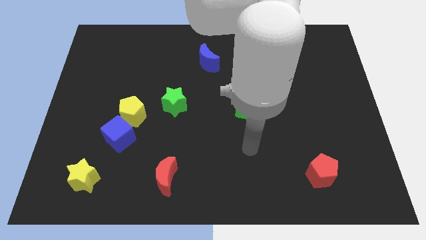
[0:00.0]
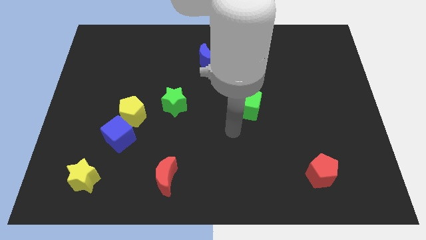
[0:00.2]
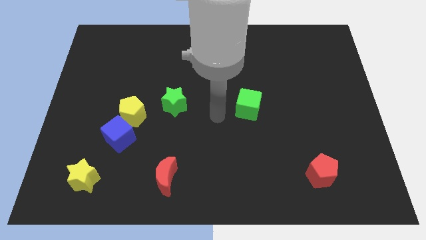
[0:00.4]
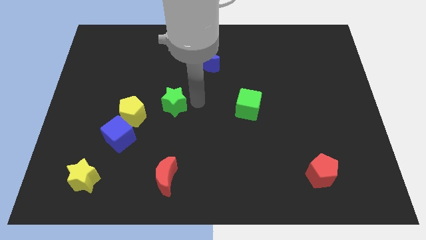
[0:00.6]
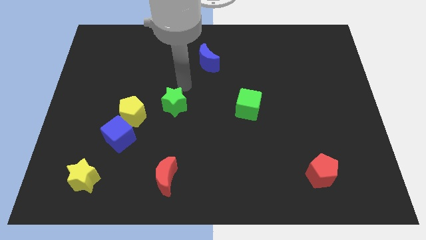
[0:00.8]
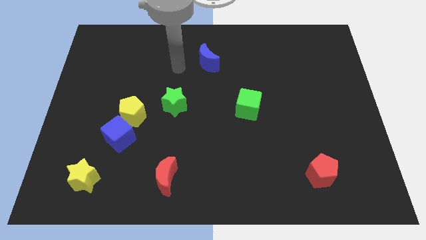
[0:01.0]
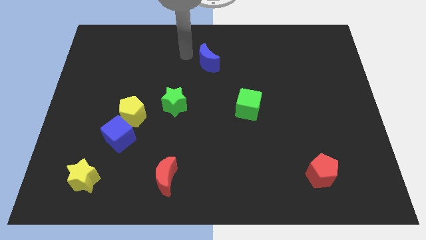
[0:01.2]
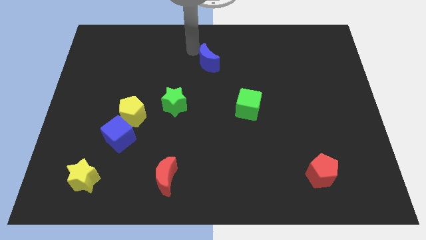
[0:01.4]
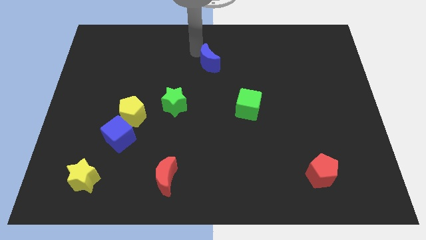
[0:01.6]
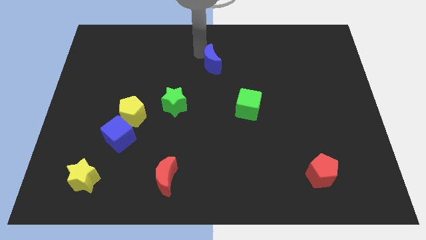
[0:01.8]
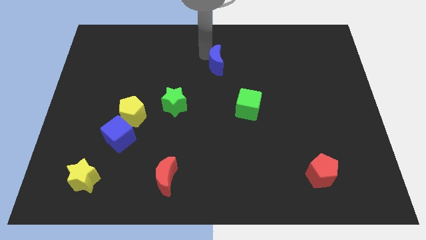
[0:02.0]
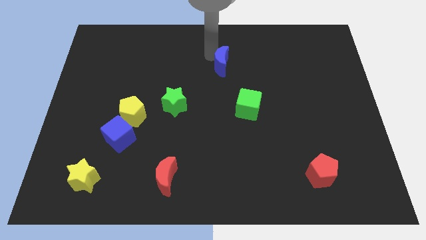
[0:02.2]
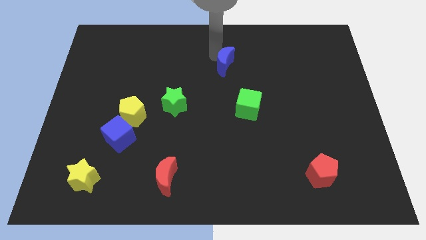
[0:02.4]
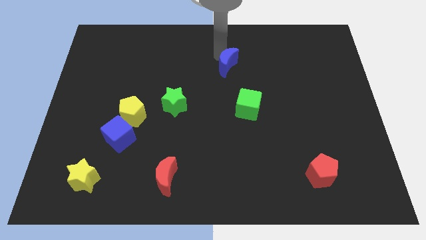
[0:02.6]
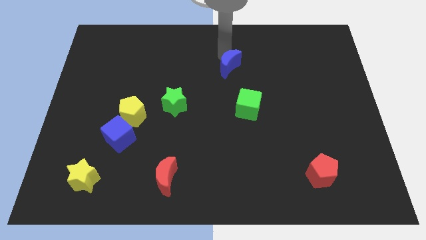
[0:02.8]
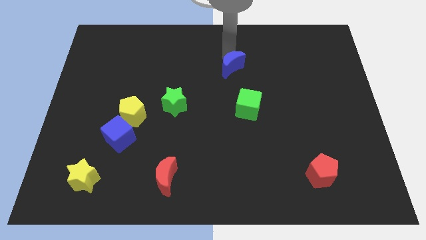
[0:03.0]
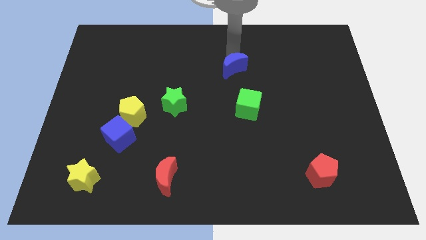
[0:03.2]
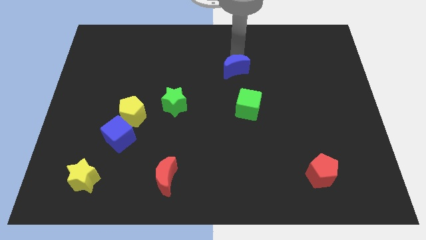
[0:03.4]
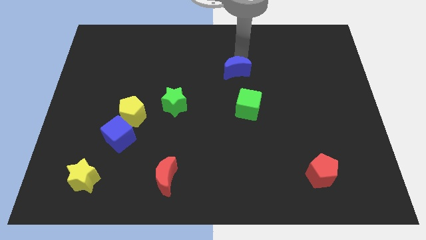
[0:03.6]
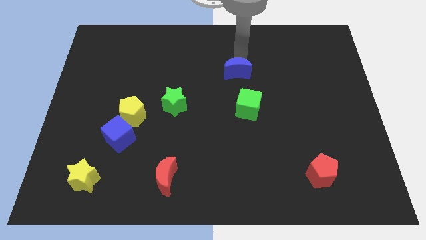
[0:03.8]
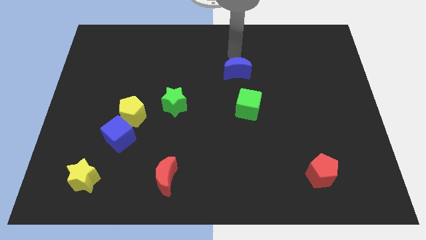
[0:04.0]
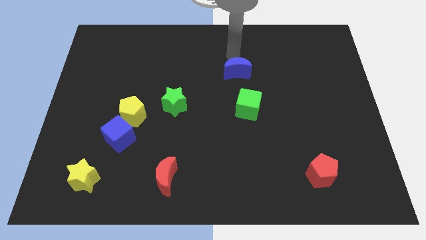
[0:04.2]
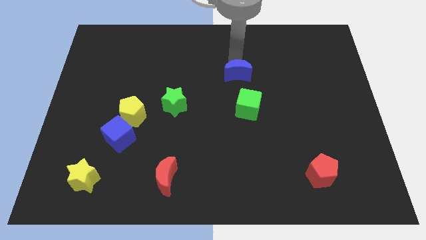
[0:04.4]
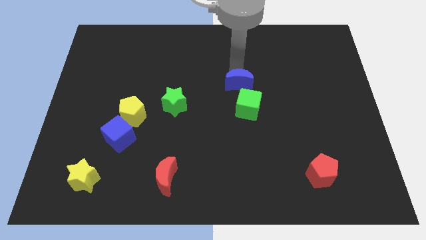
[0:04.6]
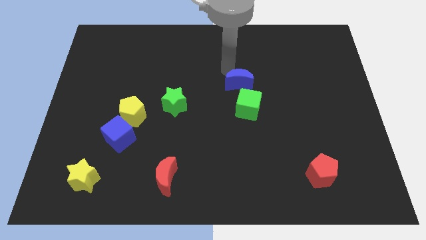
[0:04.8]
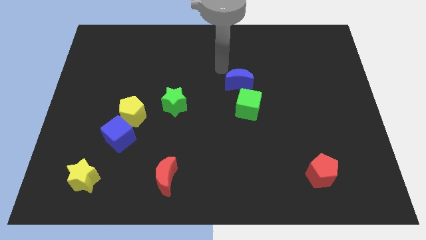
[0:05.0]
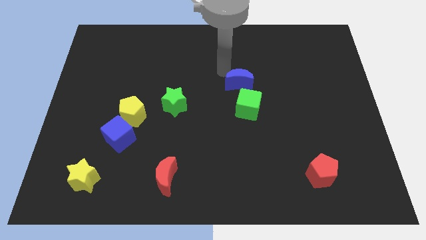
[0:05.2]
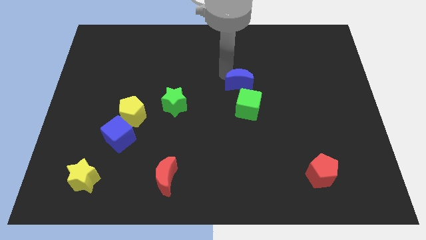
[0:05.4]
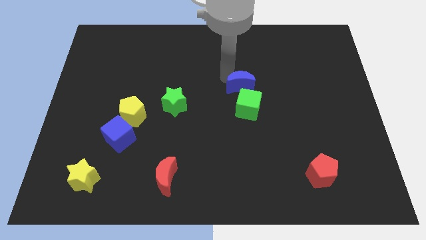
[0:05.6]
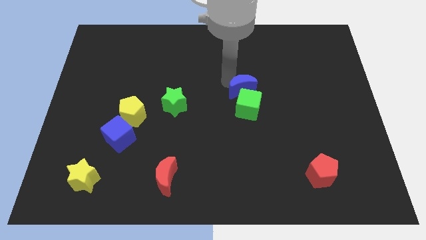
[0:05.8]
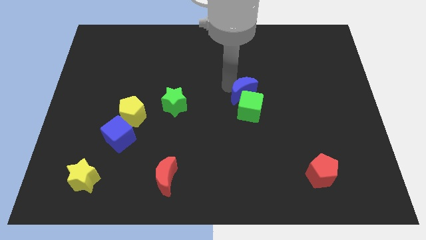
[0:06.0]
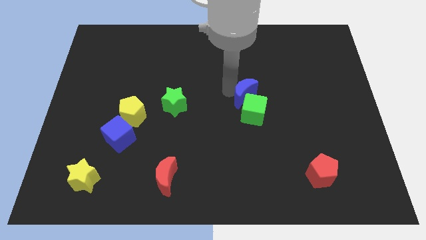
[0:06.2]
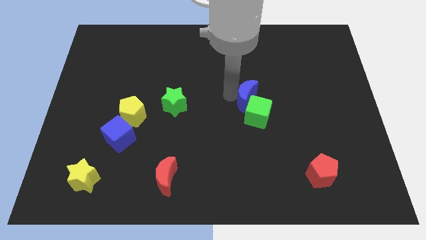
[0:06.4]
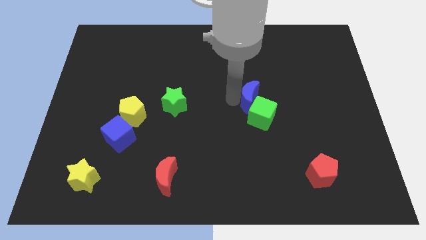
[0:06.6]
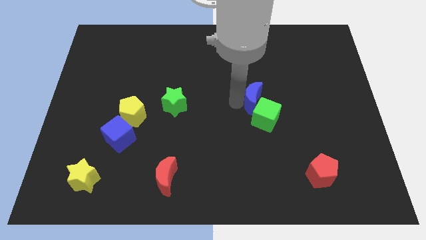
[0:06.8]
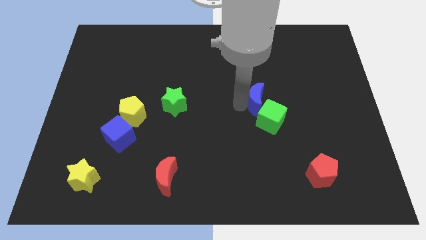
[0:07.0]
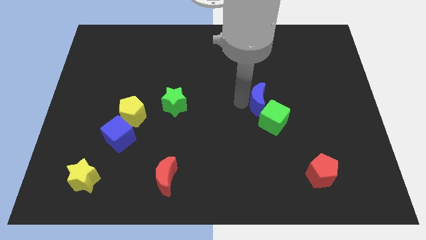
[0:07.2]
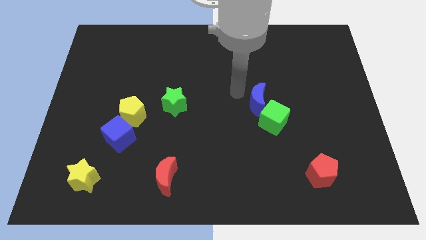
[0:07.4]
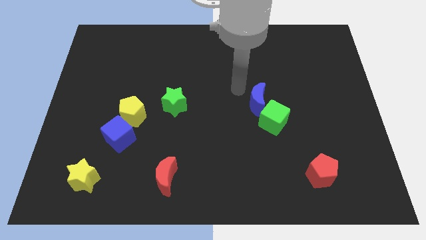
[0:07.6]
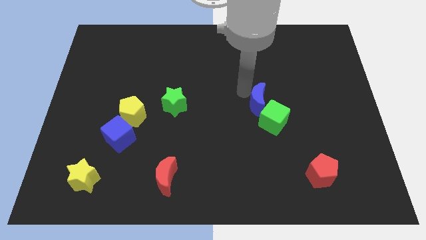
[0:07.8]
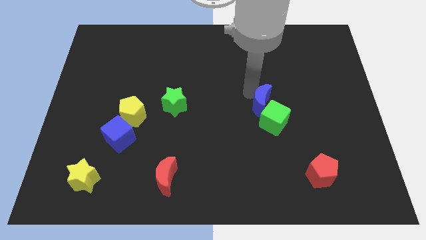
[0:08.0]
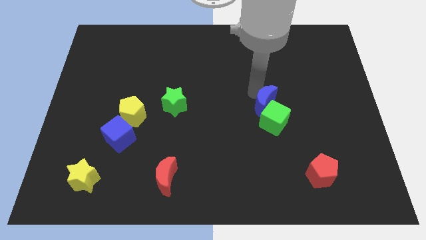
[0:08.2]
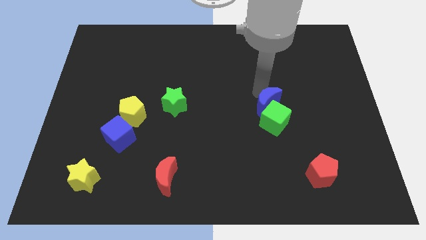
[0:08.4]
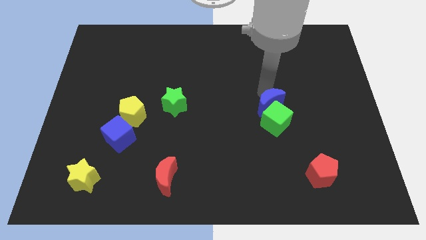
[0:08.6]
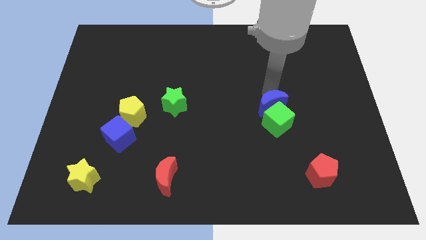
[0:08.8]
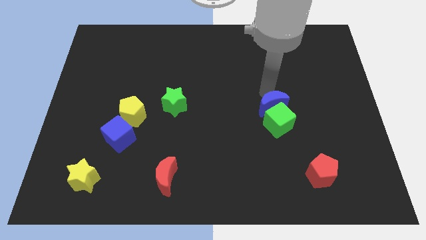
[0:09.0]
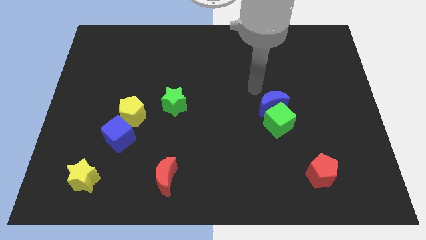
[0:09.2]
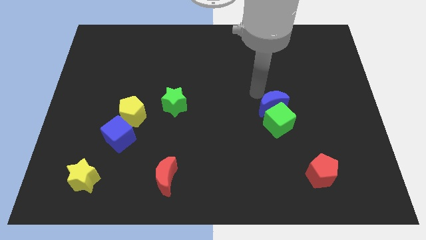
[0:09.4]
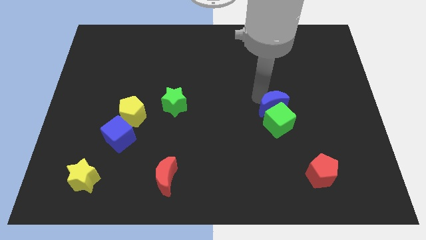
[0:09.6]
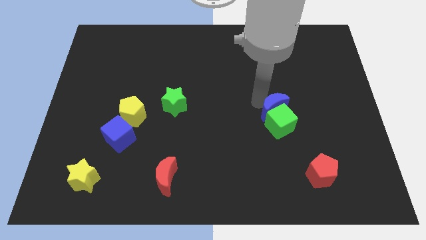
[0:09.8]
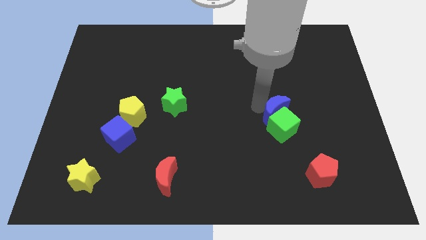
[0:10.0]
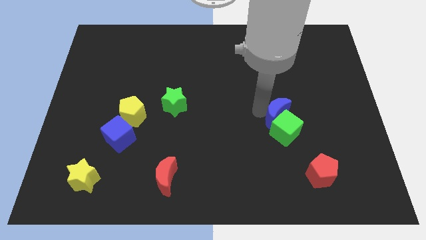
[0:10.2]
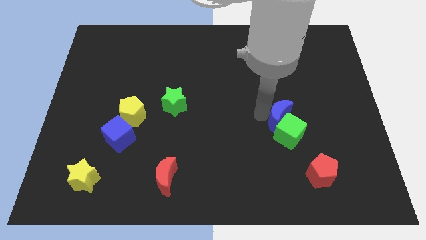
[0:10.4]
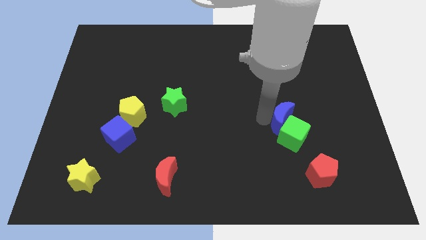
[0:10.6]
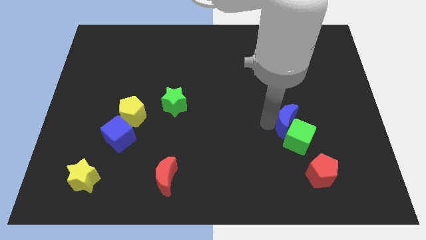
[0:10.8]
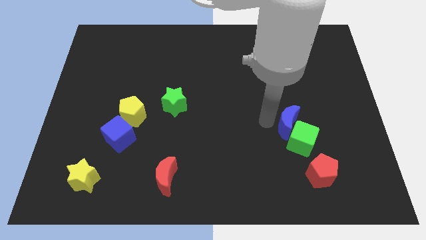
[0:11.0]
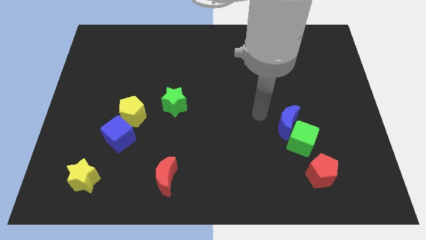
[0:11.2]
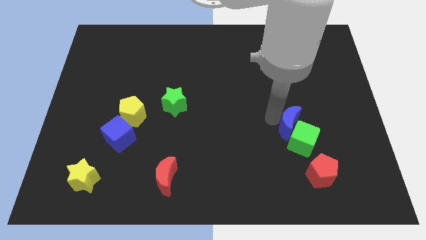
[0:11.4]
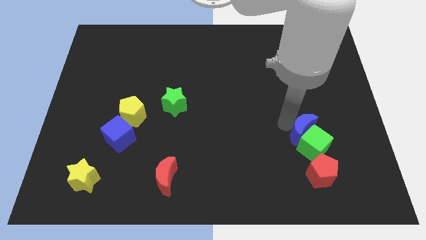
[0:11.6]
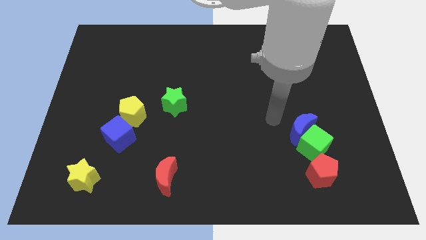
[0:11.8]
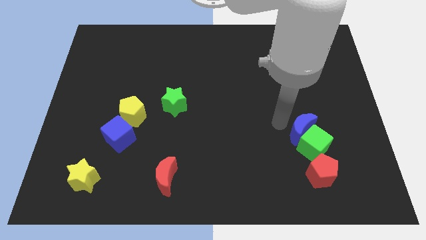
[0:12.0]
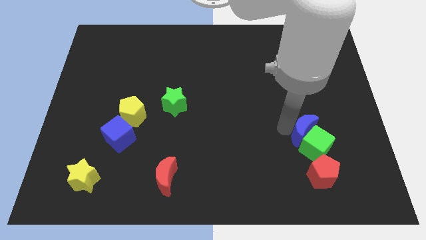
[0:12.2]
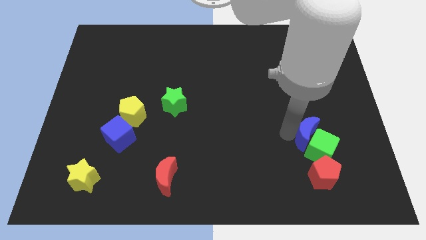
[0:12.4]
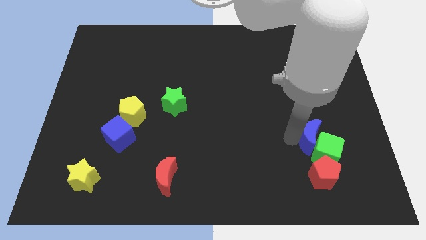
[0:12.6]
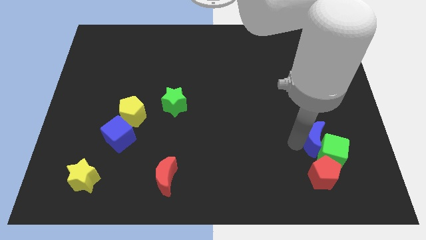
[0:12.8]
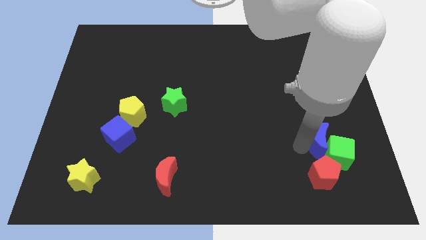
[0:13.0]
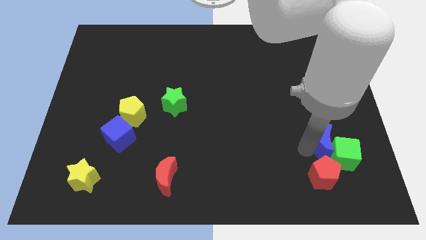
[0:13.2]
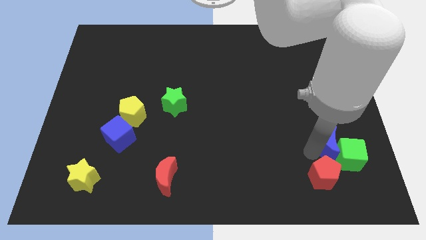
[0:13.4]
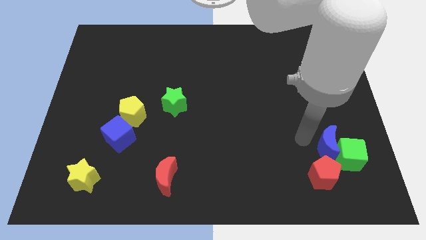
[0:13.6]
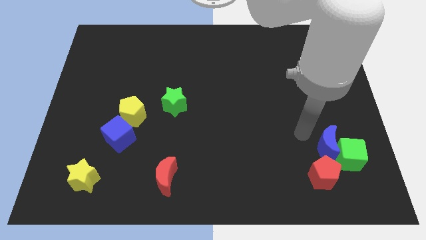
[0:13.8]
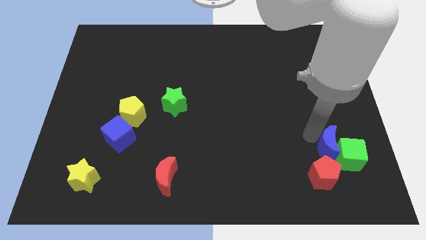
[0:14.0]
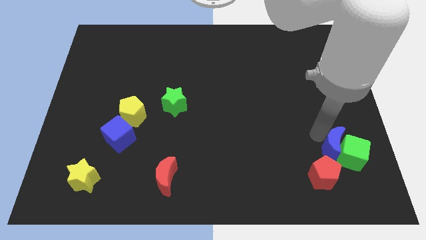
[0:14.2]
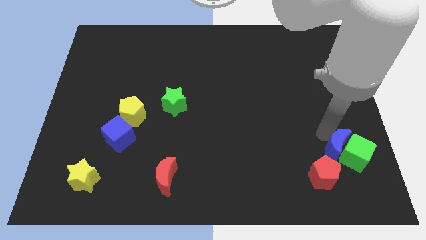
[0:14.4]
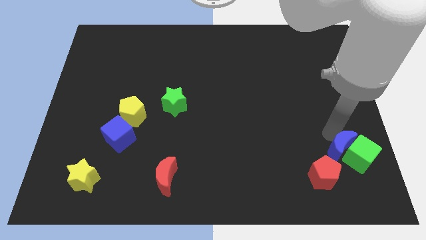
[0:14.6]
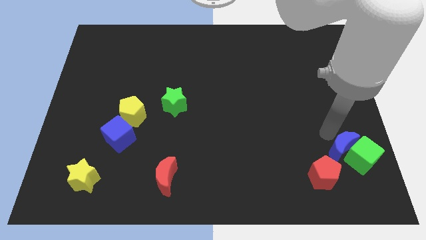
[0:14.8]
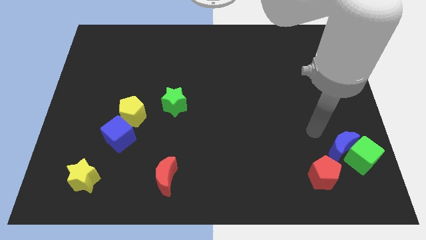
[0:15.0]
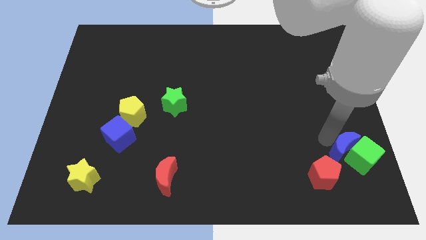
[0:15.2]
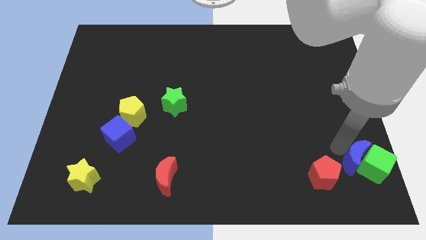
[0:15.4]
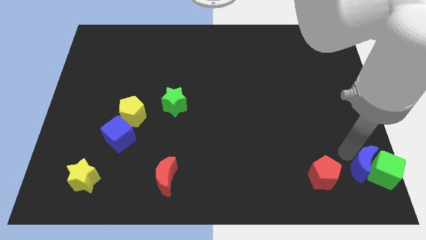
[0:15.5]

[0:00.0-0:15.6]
move the blue moon to the bottom right of the board
